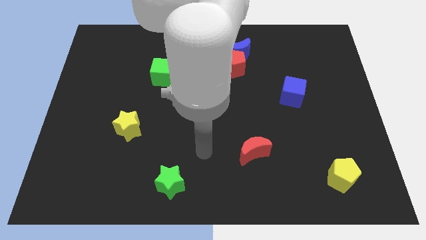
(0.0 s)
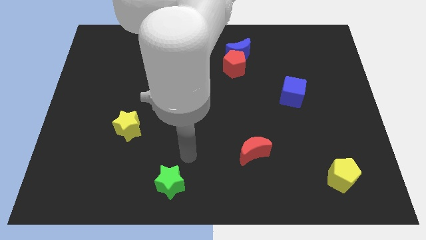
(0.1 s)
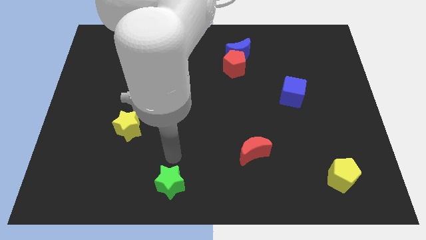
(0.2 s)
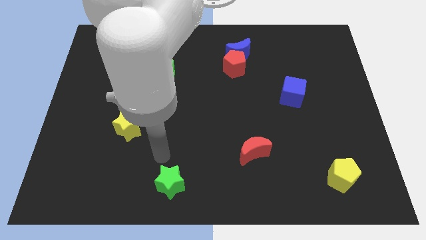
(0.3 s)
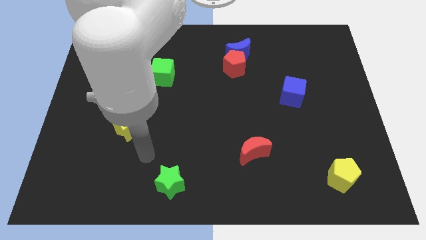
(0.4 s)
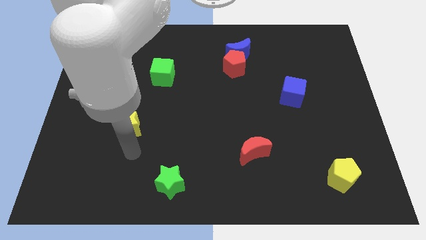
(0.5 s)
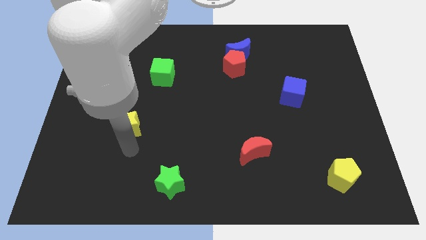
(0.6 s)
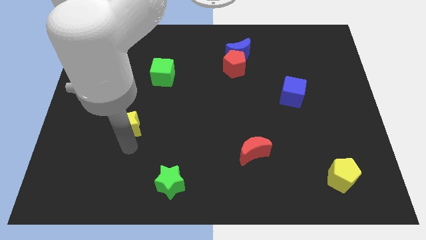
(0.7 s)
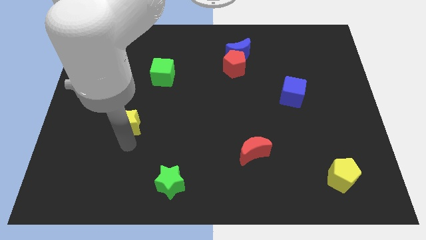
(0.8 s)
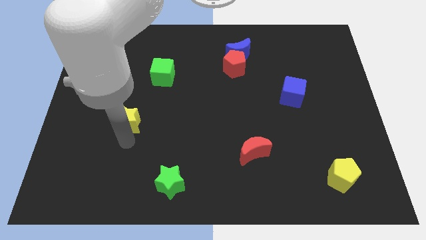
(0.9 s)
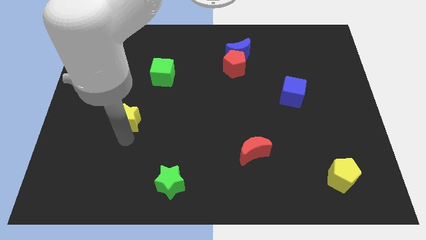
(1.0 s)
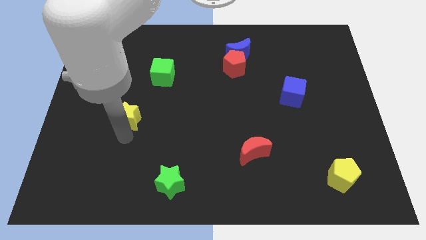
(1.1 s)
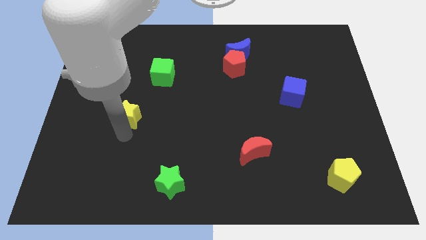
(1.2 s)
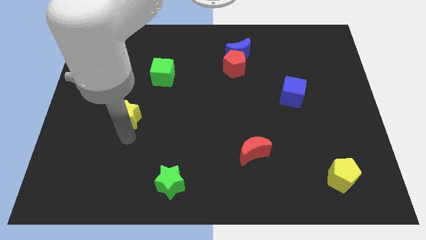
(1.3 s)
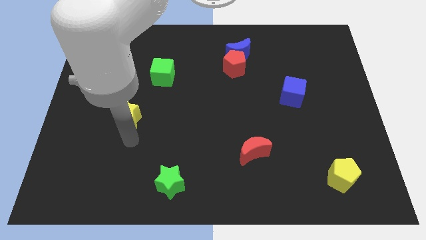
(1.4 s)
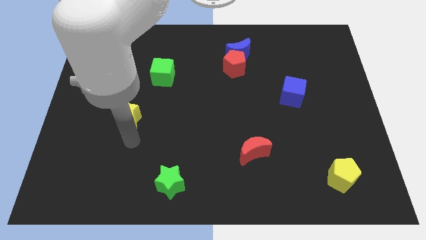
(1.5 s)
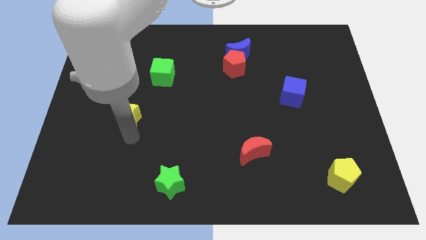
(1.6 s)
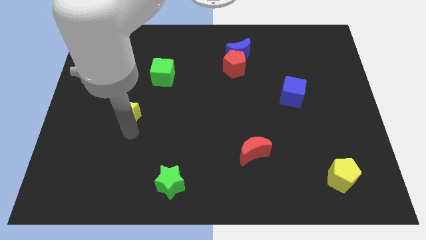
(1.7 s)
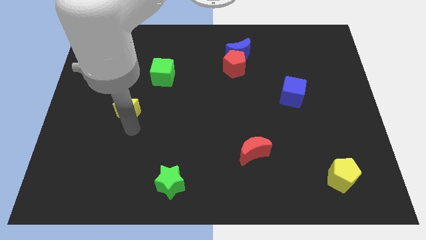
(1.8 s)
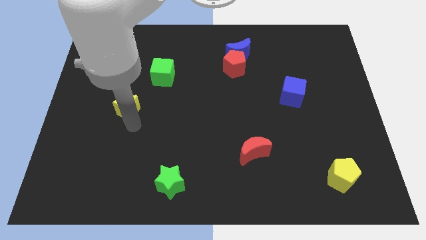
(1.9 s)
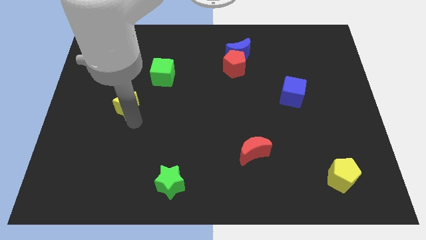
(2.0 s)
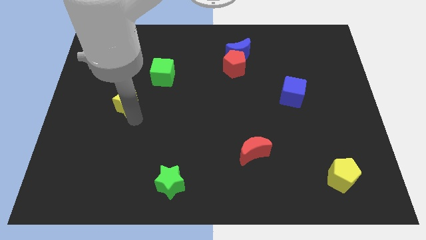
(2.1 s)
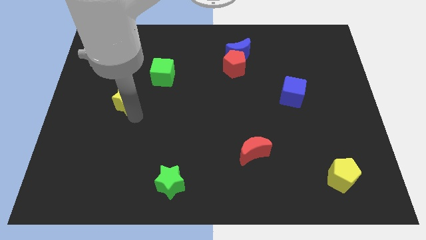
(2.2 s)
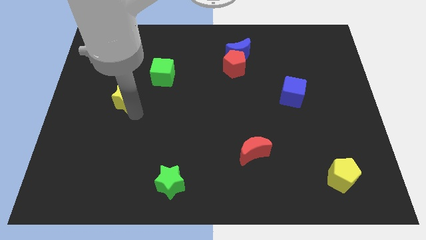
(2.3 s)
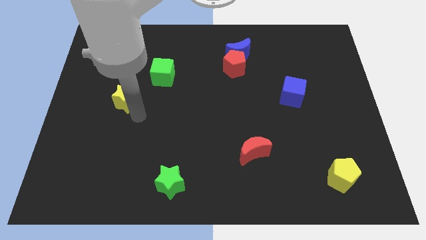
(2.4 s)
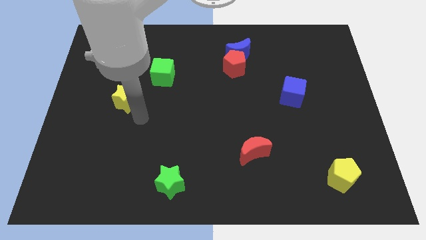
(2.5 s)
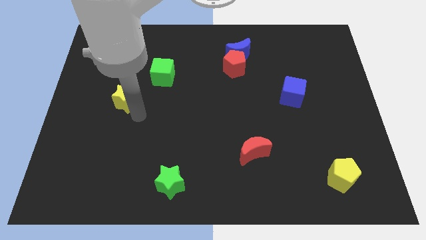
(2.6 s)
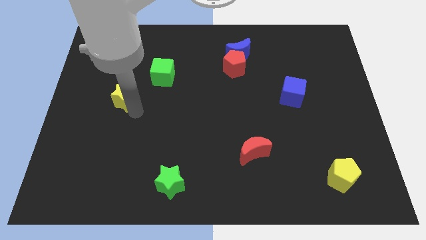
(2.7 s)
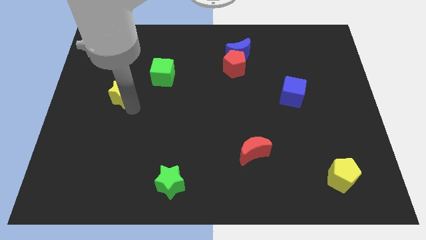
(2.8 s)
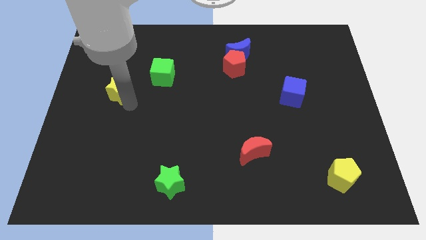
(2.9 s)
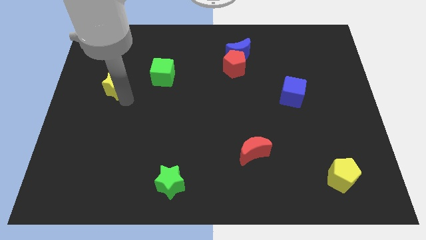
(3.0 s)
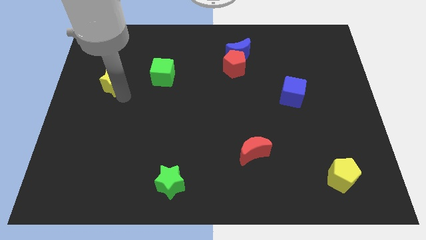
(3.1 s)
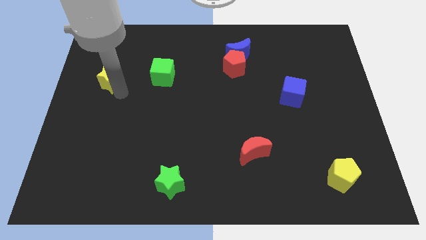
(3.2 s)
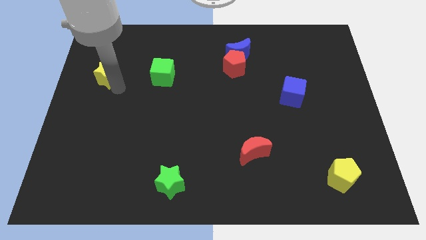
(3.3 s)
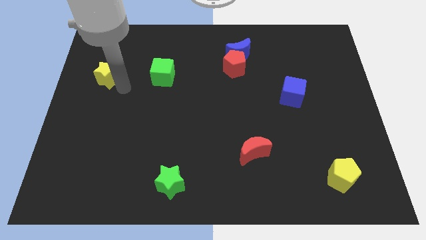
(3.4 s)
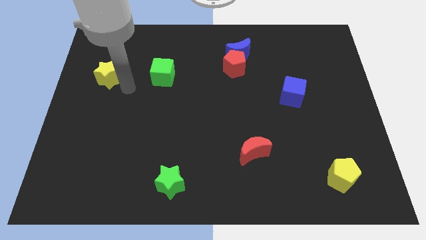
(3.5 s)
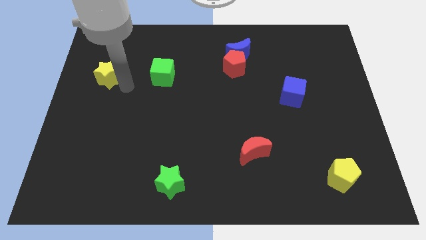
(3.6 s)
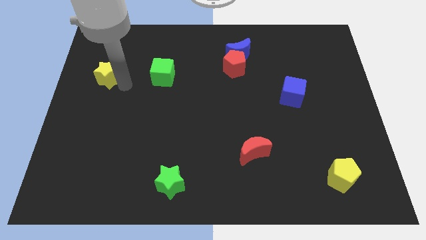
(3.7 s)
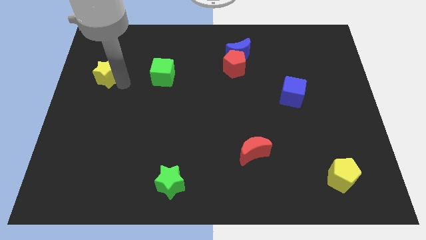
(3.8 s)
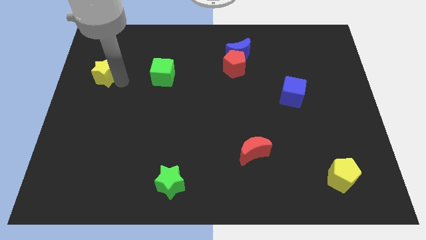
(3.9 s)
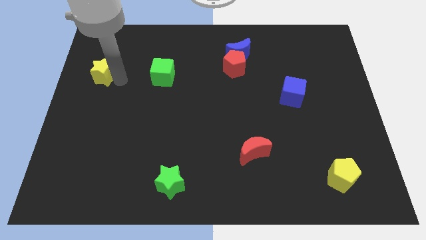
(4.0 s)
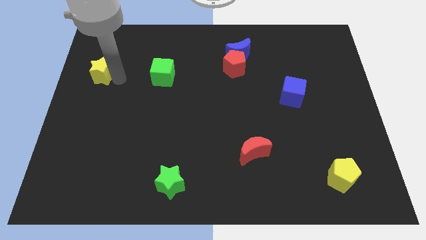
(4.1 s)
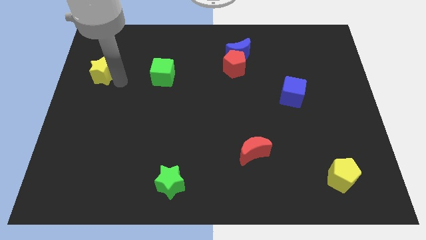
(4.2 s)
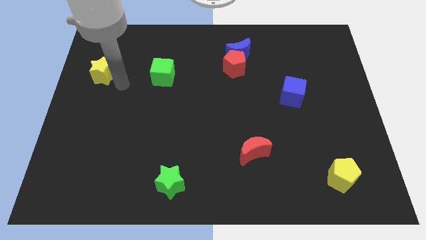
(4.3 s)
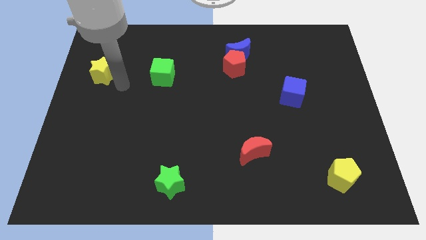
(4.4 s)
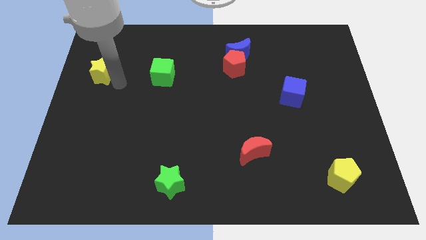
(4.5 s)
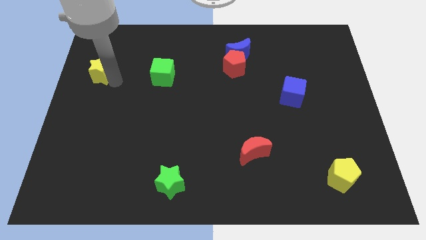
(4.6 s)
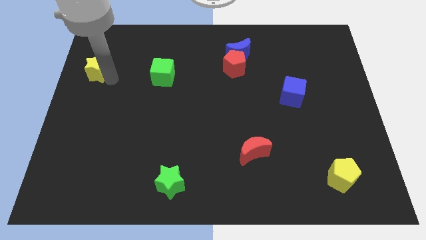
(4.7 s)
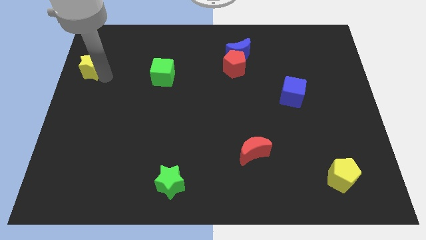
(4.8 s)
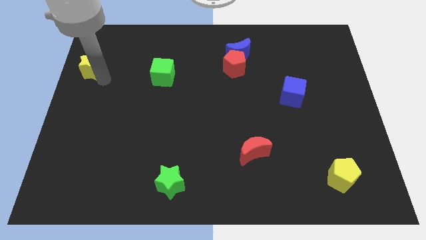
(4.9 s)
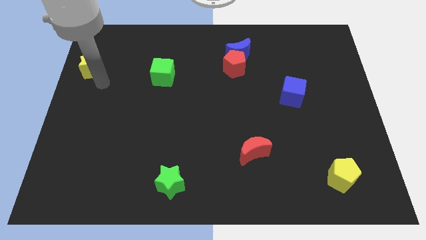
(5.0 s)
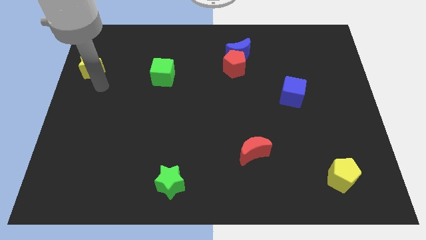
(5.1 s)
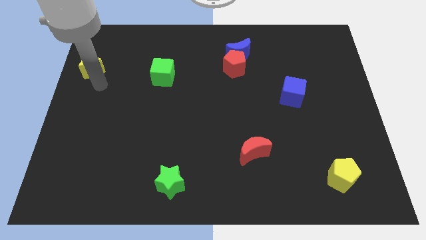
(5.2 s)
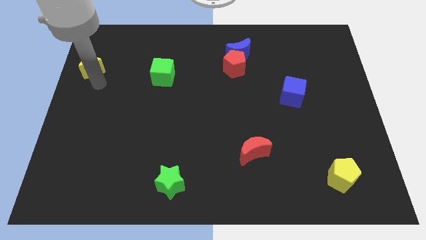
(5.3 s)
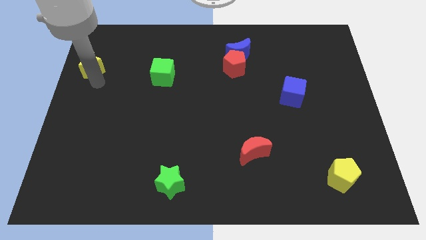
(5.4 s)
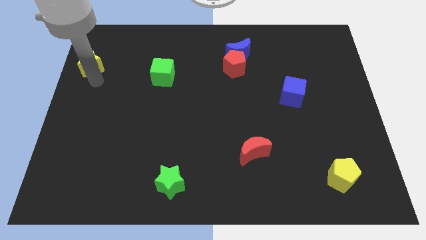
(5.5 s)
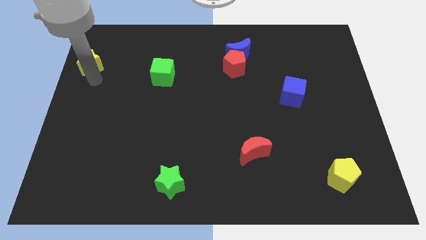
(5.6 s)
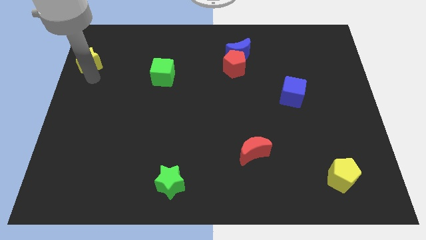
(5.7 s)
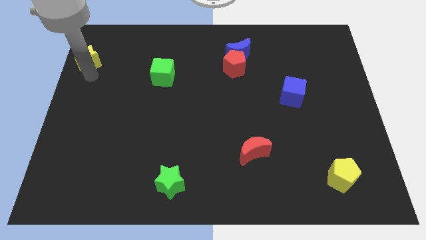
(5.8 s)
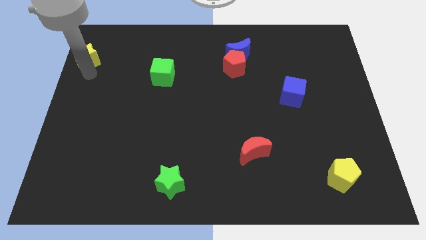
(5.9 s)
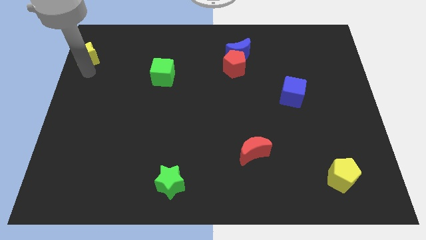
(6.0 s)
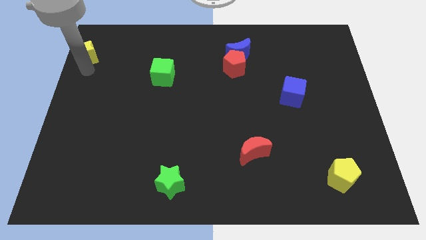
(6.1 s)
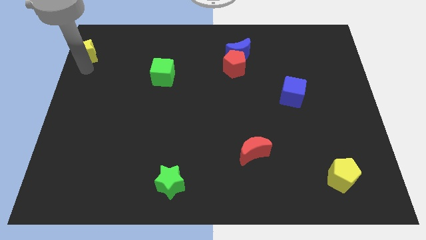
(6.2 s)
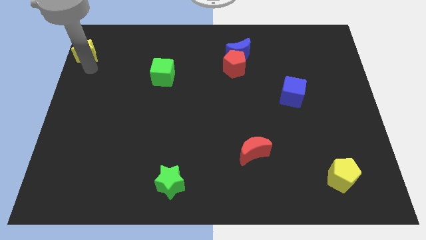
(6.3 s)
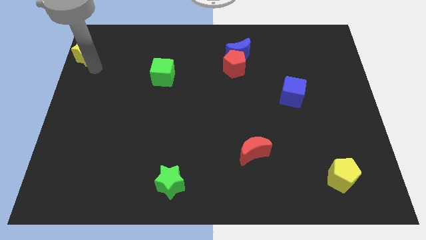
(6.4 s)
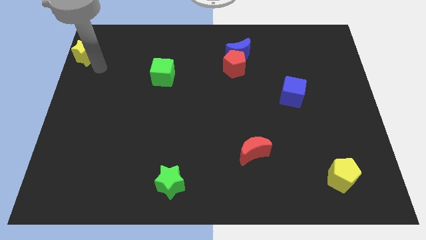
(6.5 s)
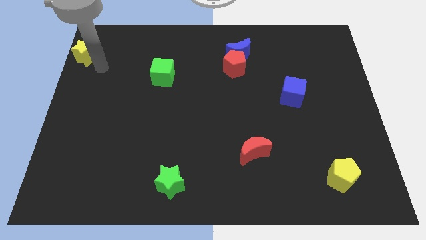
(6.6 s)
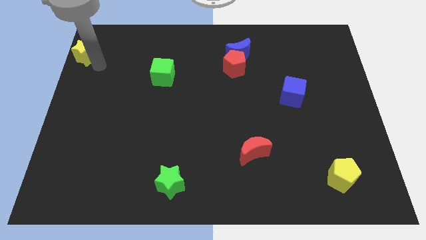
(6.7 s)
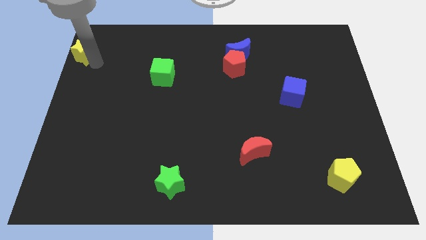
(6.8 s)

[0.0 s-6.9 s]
slide the yellow star to the top left of the board

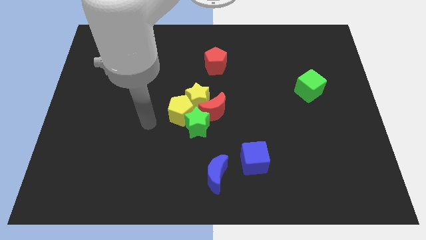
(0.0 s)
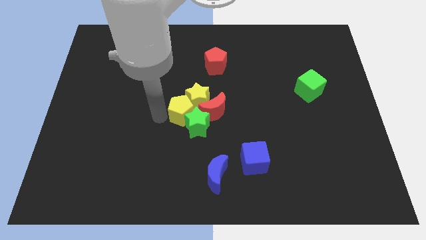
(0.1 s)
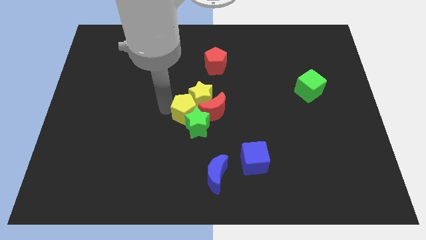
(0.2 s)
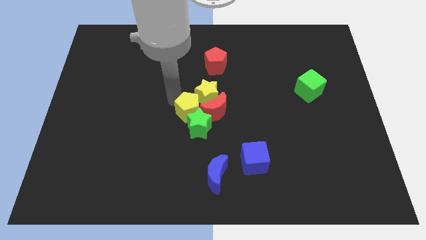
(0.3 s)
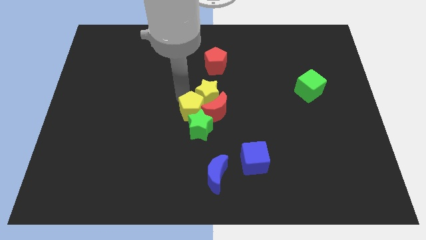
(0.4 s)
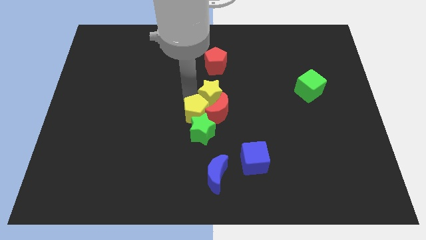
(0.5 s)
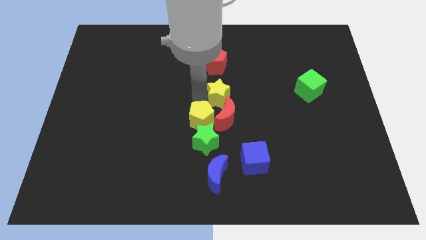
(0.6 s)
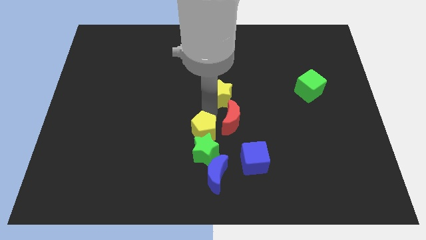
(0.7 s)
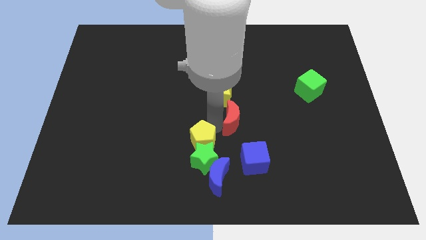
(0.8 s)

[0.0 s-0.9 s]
put the green star to the bottom side
